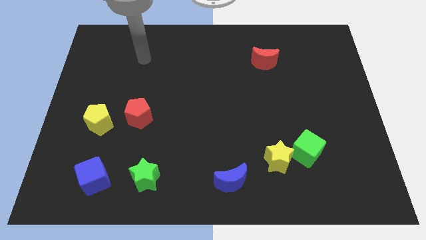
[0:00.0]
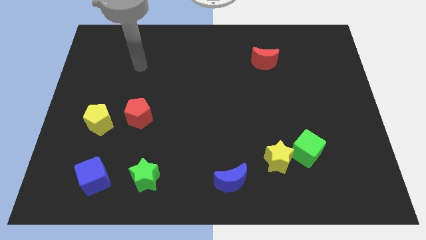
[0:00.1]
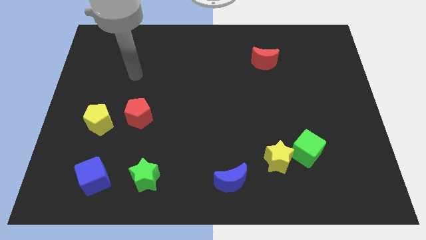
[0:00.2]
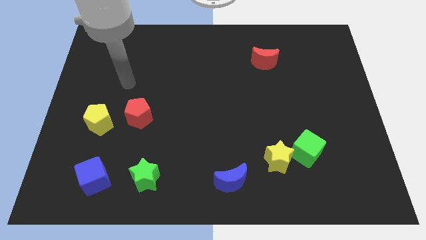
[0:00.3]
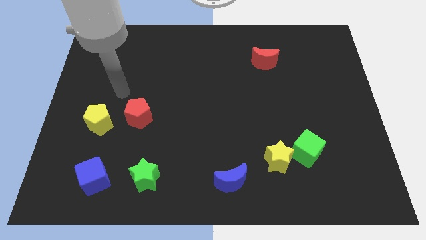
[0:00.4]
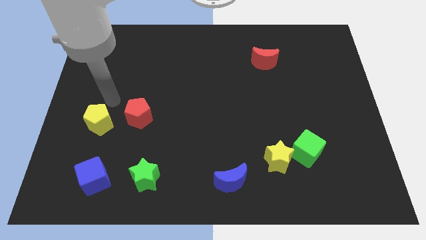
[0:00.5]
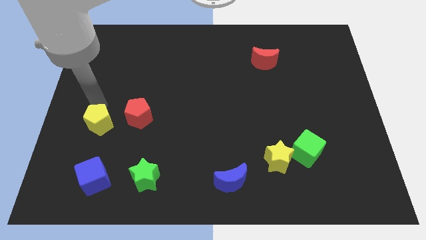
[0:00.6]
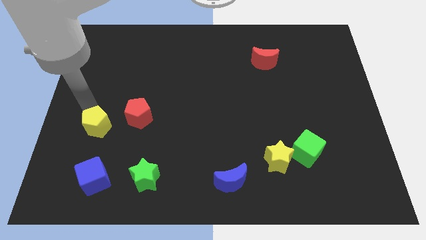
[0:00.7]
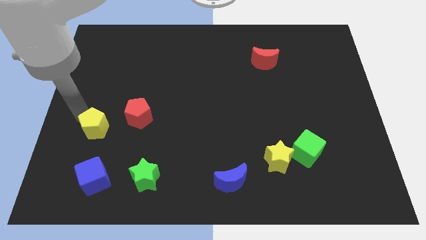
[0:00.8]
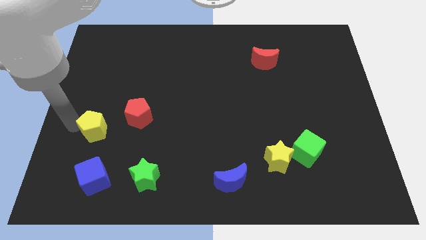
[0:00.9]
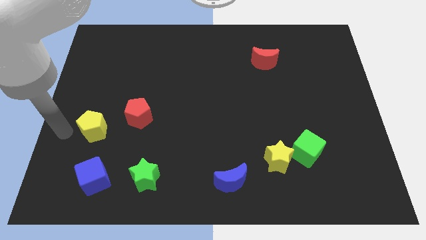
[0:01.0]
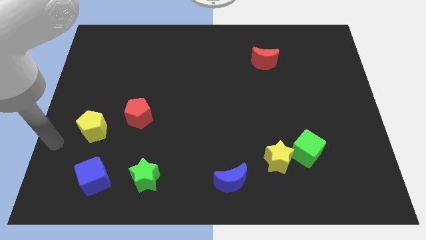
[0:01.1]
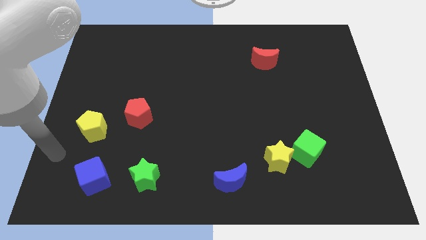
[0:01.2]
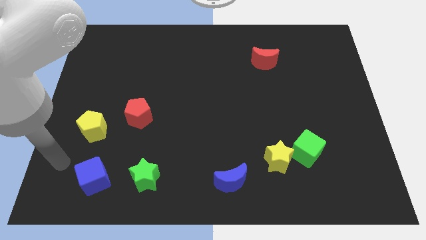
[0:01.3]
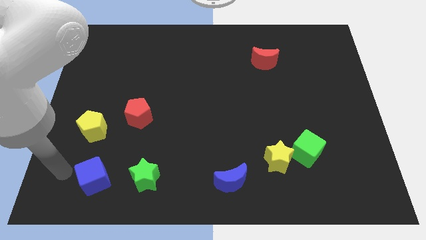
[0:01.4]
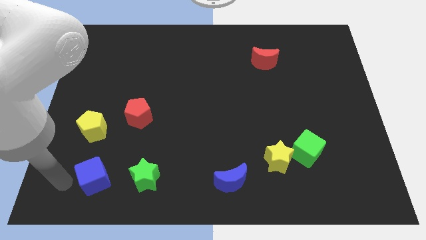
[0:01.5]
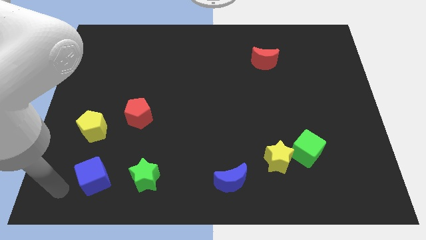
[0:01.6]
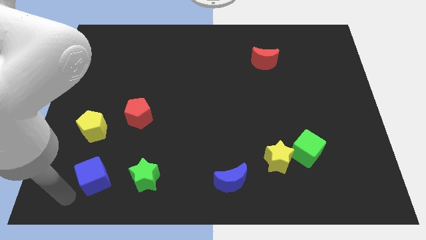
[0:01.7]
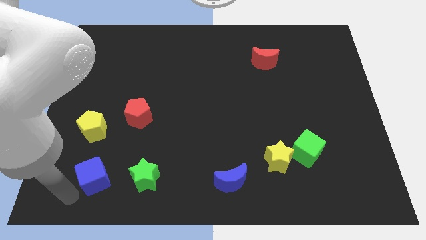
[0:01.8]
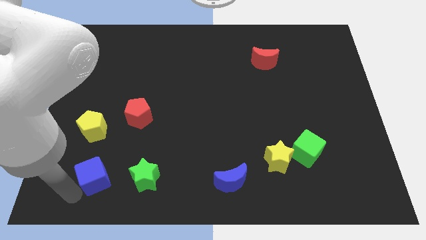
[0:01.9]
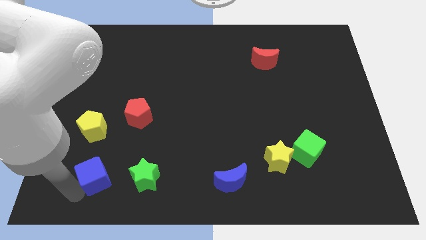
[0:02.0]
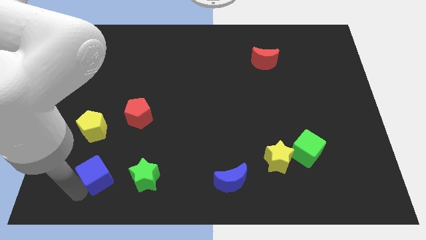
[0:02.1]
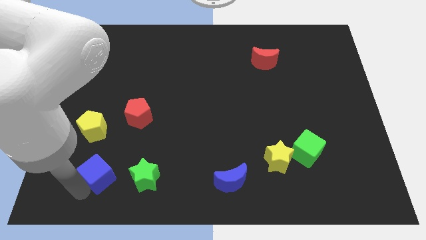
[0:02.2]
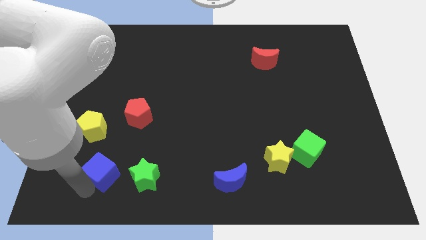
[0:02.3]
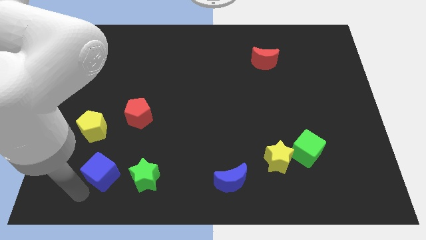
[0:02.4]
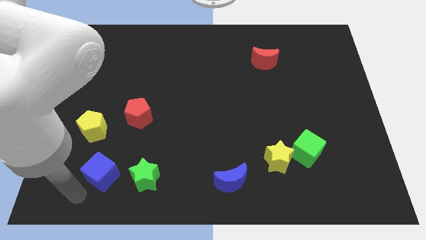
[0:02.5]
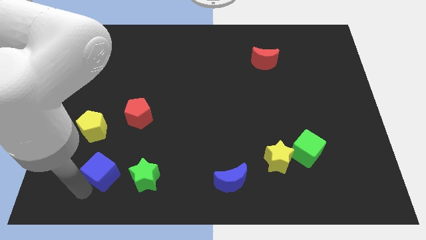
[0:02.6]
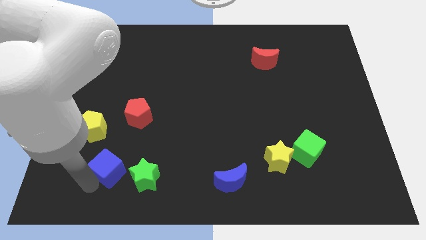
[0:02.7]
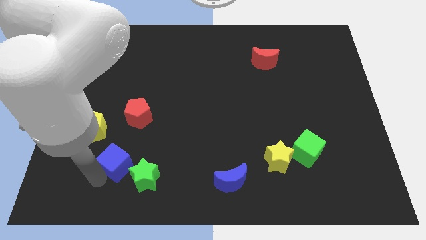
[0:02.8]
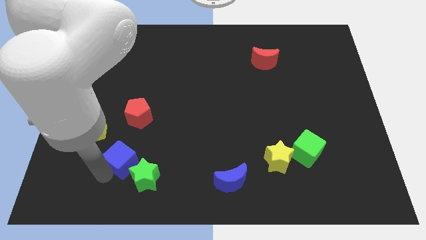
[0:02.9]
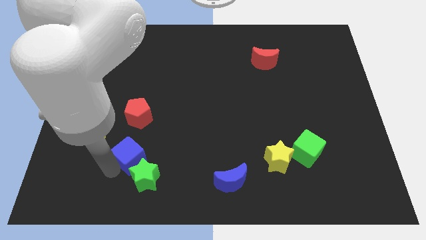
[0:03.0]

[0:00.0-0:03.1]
push the blue cube a little upwards and right

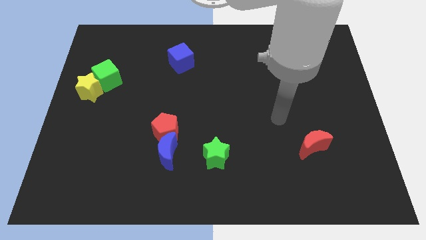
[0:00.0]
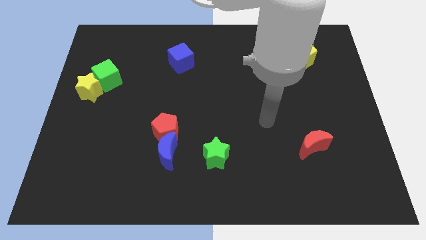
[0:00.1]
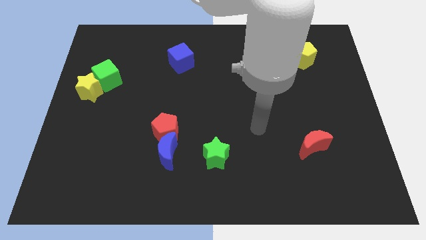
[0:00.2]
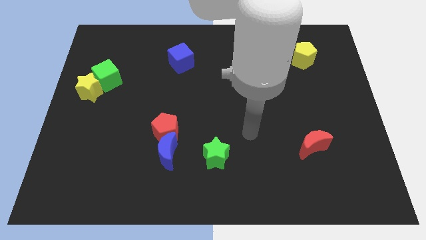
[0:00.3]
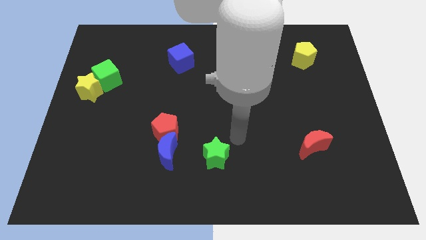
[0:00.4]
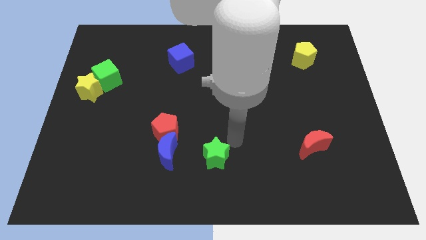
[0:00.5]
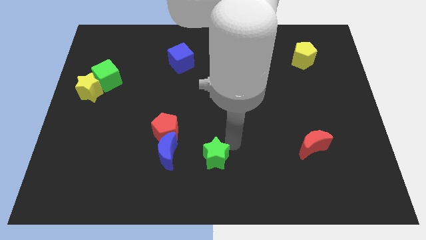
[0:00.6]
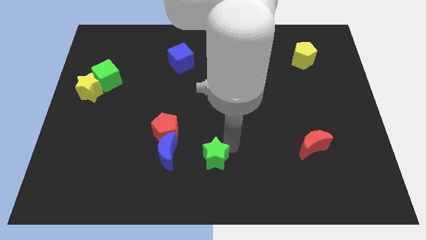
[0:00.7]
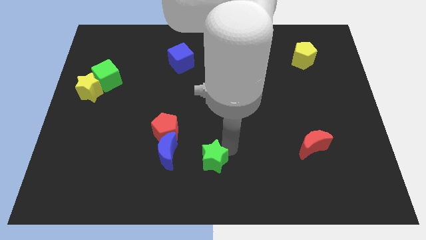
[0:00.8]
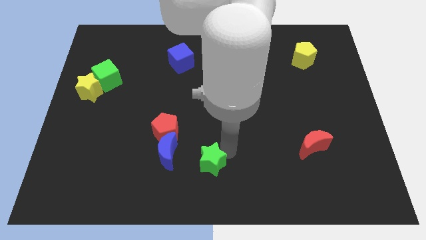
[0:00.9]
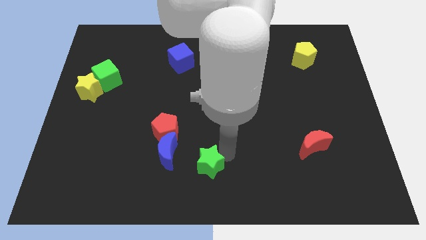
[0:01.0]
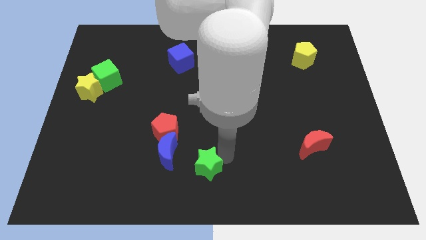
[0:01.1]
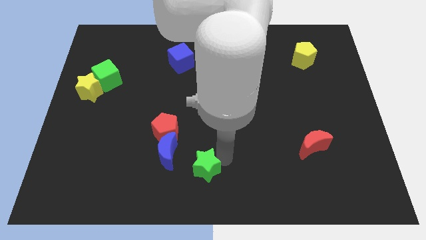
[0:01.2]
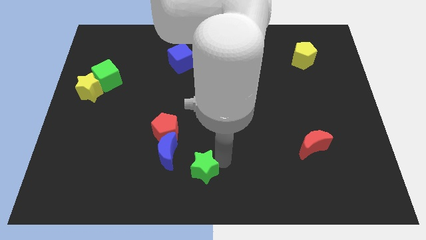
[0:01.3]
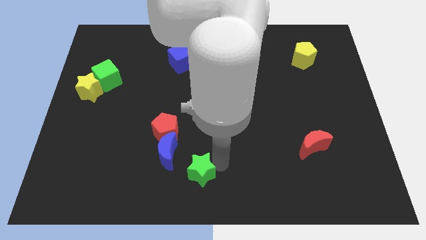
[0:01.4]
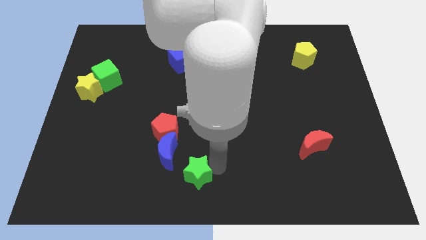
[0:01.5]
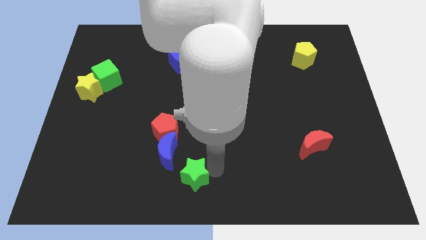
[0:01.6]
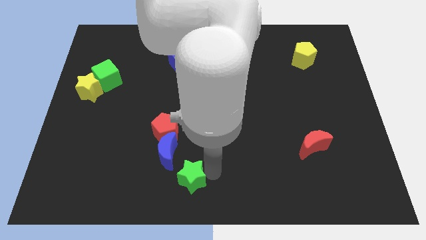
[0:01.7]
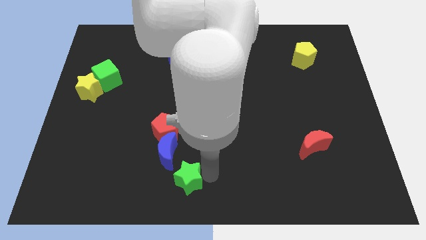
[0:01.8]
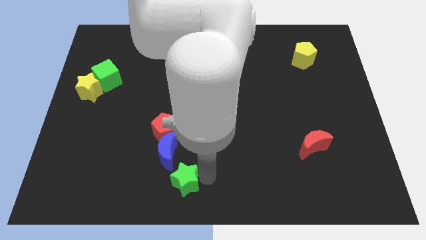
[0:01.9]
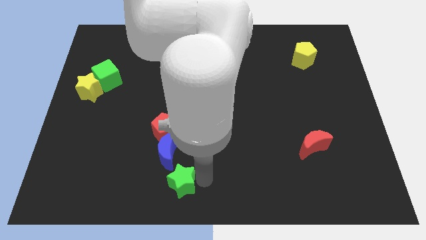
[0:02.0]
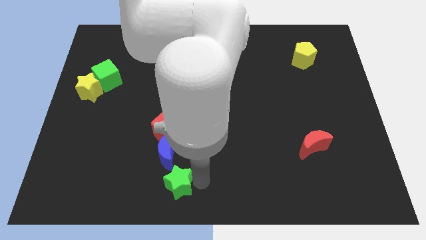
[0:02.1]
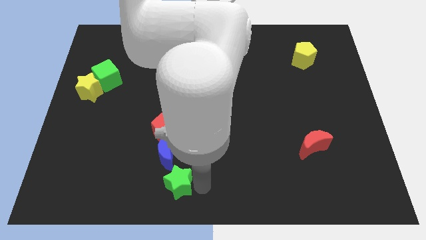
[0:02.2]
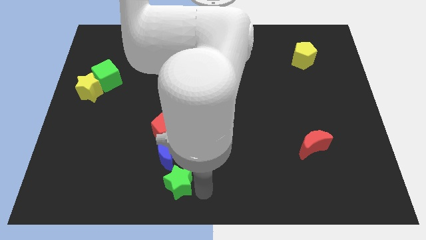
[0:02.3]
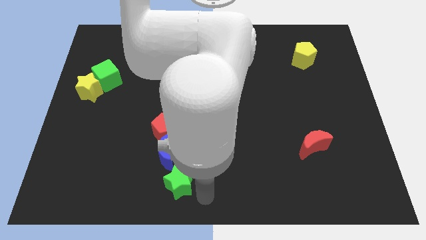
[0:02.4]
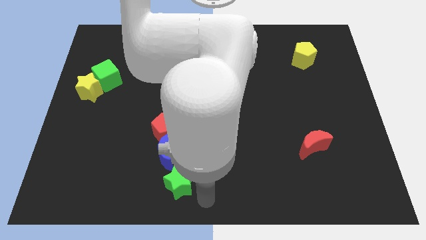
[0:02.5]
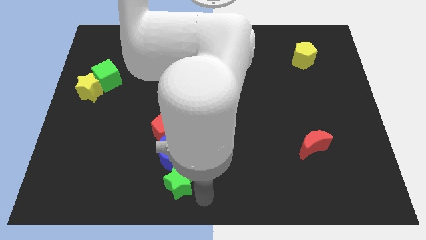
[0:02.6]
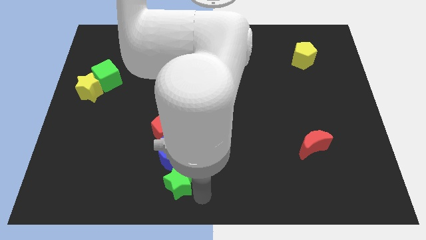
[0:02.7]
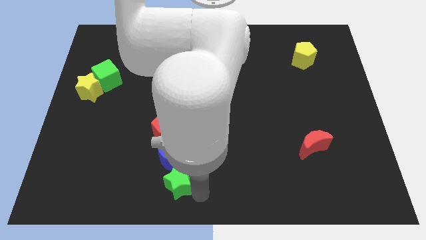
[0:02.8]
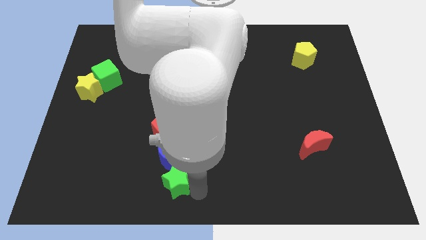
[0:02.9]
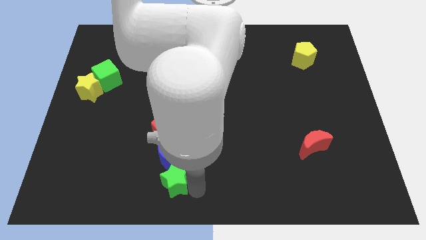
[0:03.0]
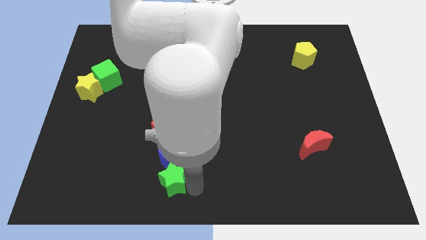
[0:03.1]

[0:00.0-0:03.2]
move the green star to the left a bit

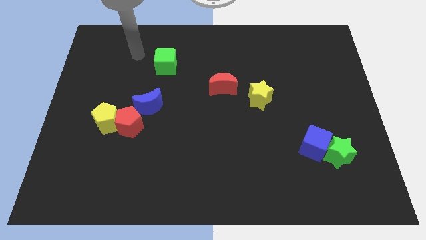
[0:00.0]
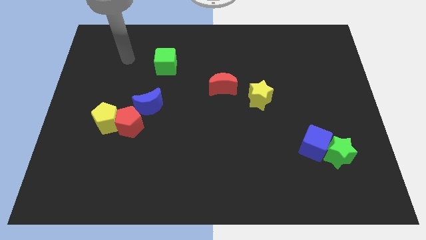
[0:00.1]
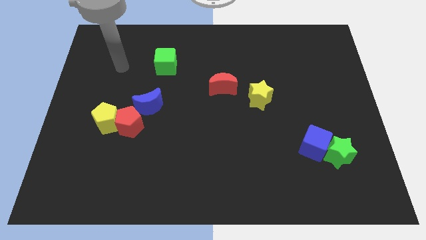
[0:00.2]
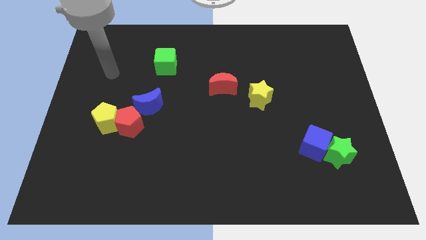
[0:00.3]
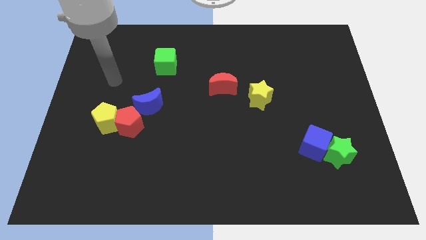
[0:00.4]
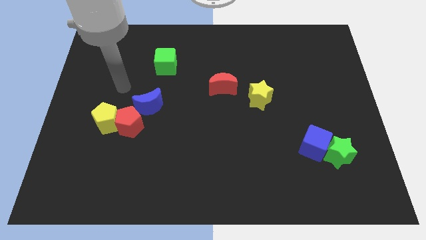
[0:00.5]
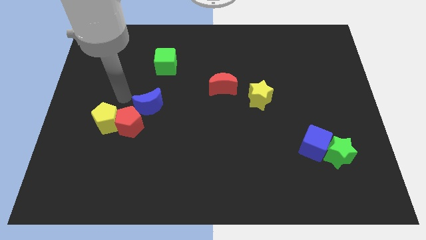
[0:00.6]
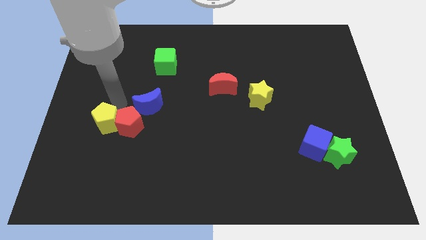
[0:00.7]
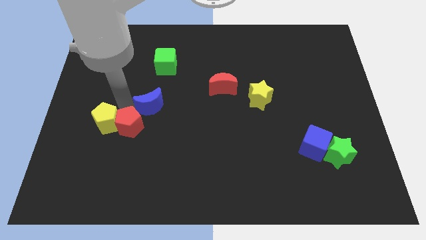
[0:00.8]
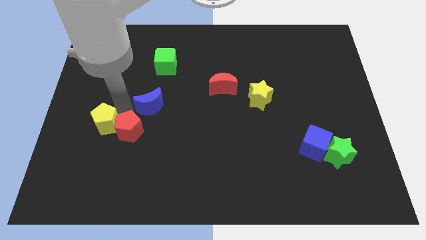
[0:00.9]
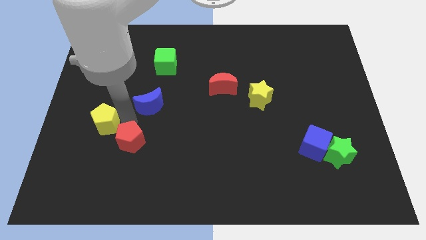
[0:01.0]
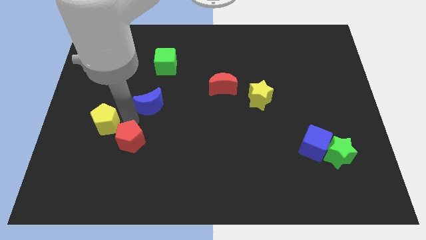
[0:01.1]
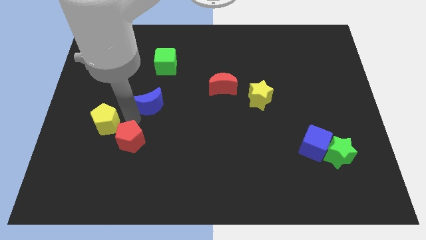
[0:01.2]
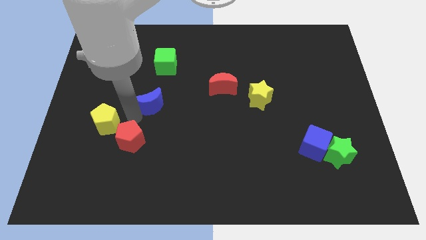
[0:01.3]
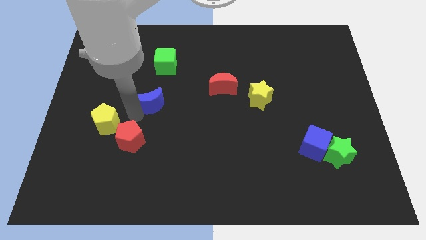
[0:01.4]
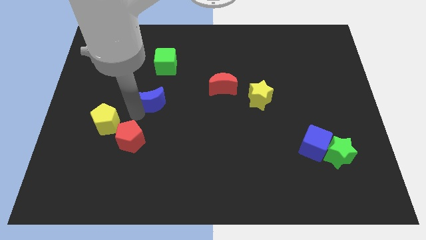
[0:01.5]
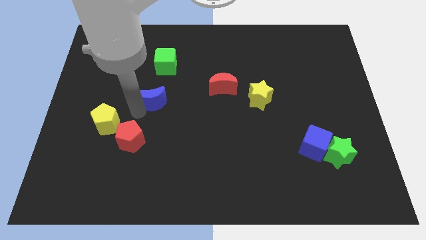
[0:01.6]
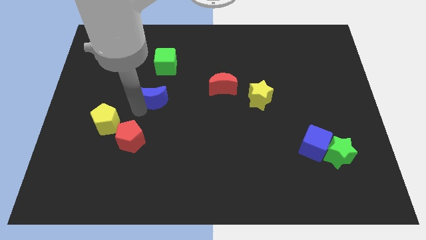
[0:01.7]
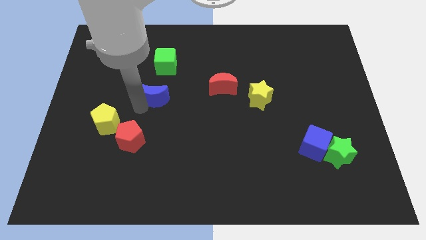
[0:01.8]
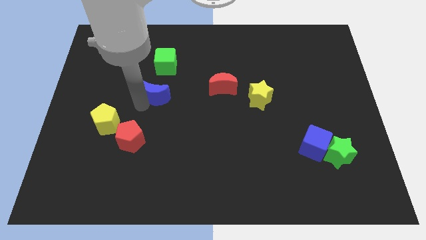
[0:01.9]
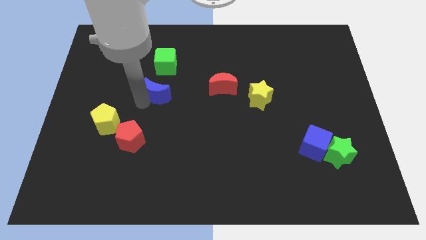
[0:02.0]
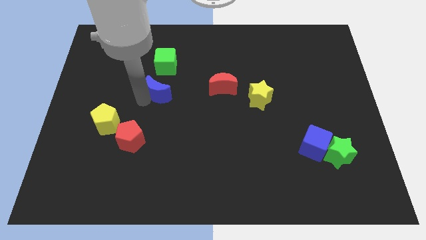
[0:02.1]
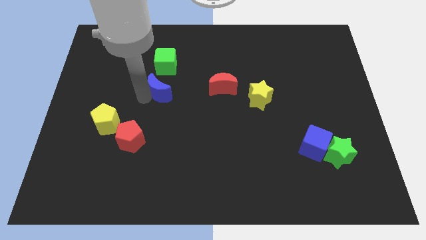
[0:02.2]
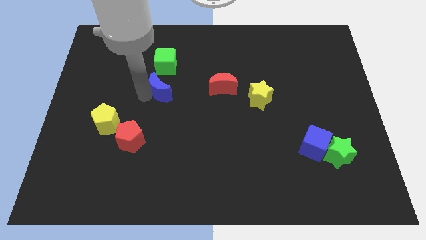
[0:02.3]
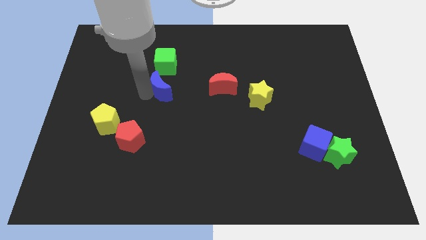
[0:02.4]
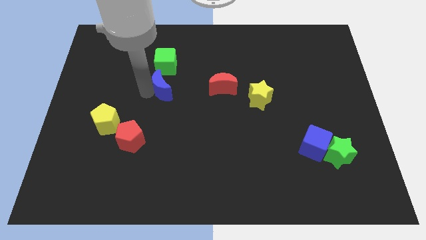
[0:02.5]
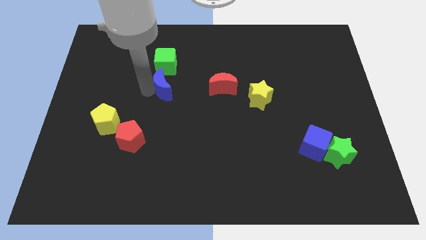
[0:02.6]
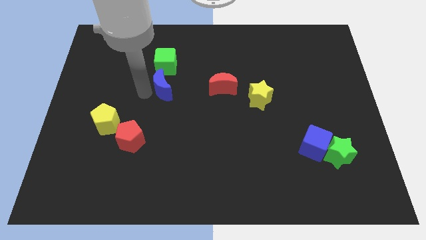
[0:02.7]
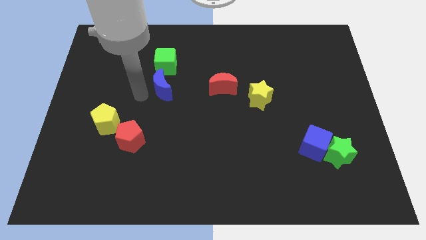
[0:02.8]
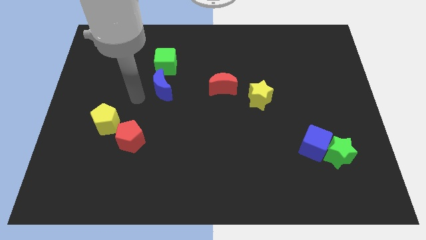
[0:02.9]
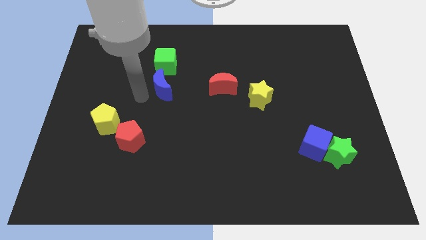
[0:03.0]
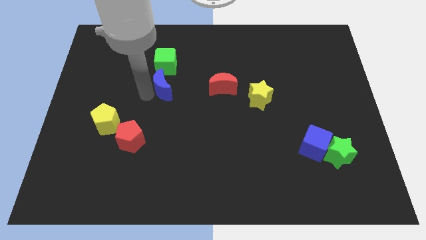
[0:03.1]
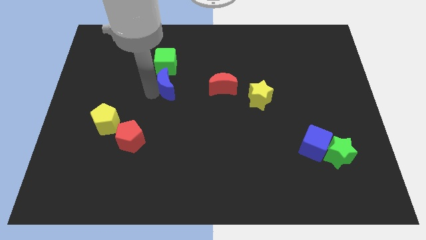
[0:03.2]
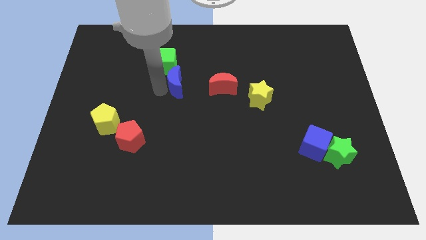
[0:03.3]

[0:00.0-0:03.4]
move the blue moon diagonally up and to the right a little bit
